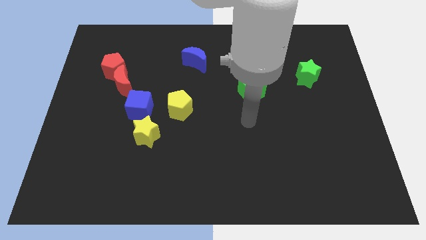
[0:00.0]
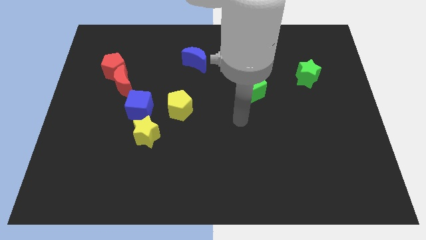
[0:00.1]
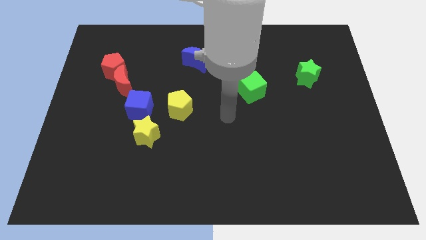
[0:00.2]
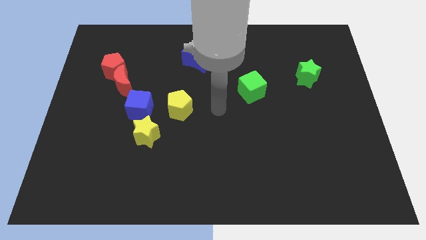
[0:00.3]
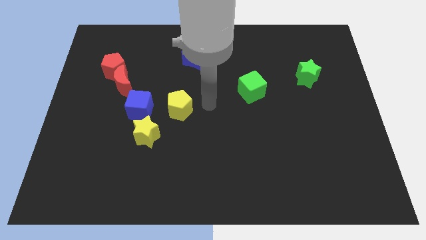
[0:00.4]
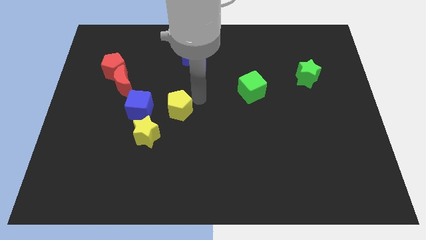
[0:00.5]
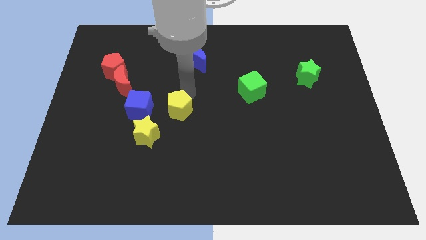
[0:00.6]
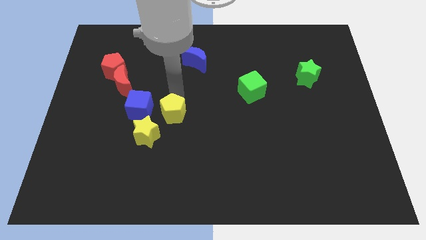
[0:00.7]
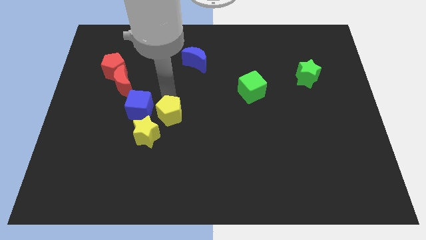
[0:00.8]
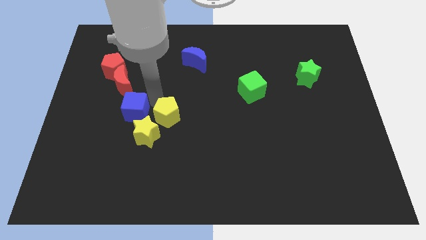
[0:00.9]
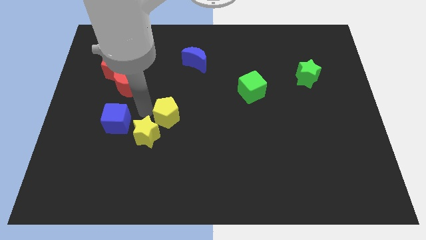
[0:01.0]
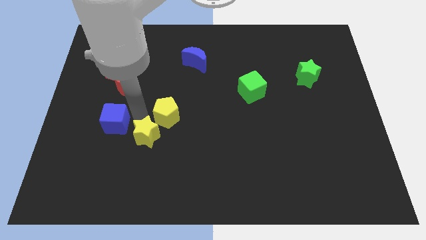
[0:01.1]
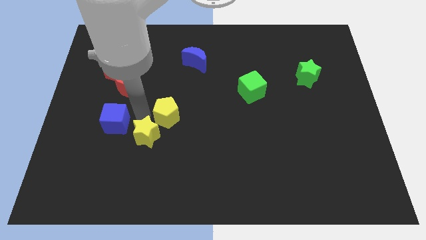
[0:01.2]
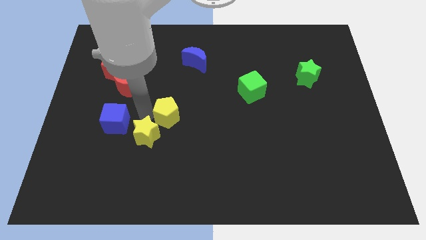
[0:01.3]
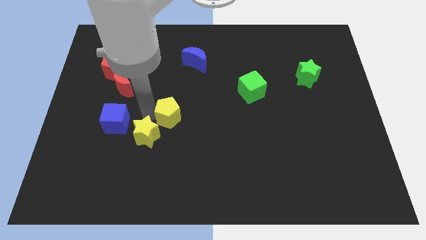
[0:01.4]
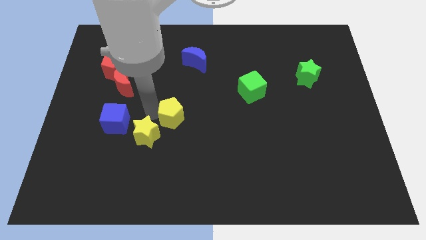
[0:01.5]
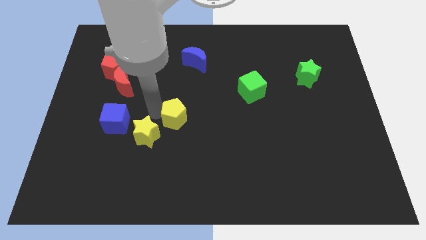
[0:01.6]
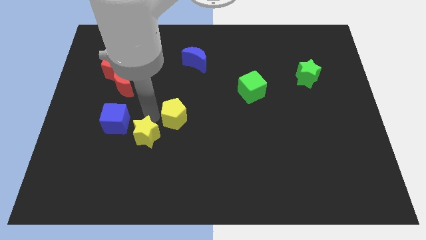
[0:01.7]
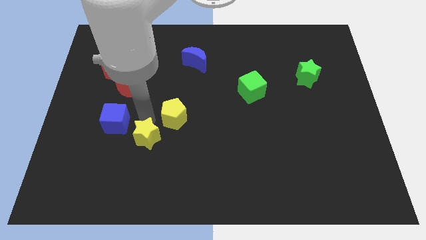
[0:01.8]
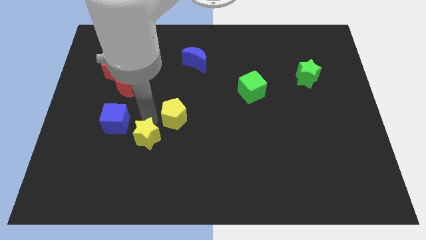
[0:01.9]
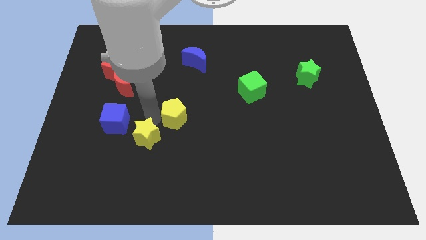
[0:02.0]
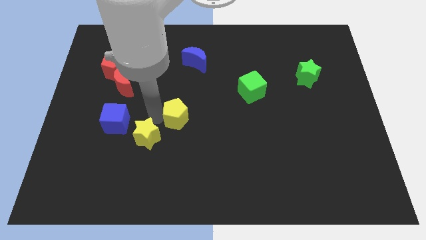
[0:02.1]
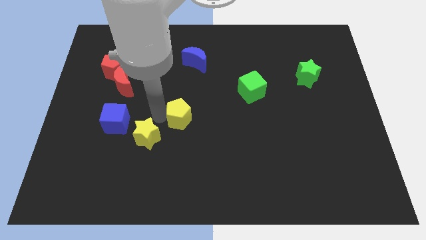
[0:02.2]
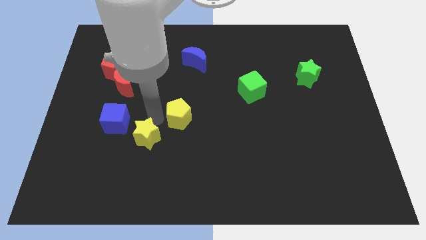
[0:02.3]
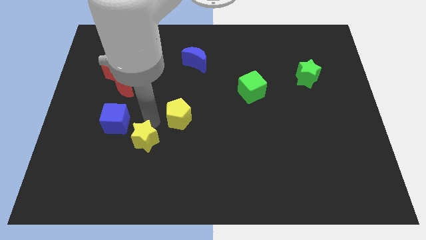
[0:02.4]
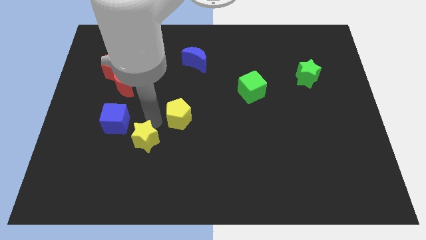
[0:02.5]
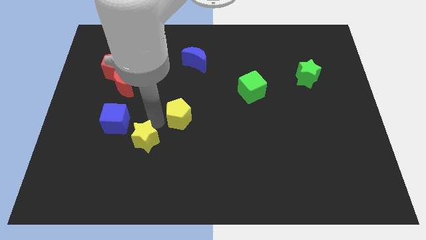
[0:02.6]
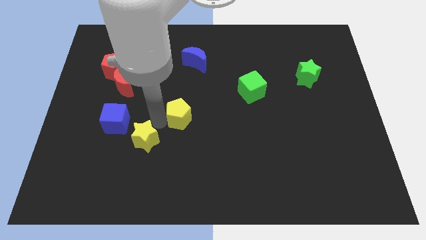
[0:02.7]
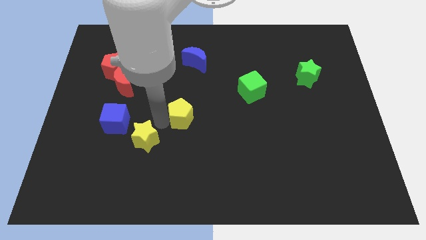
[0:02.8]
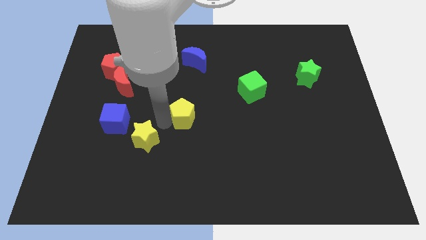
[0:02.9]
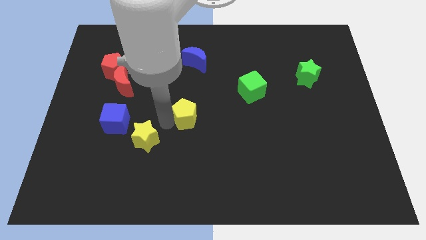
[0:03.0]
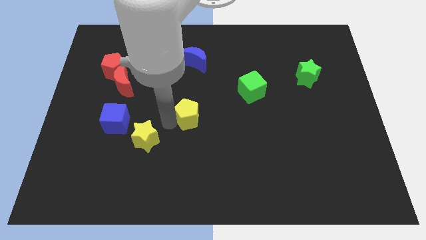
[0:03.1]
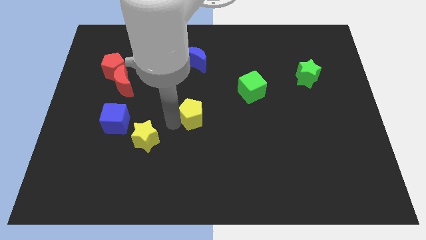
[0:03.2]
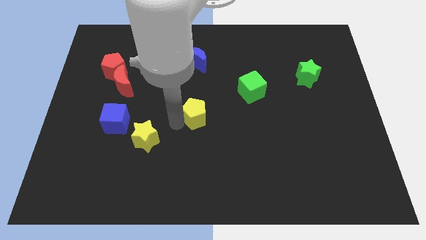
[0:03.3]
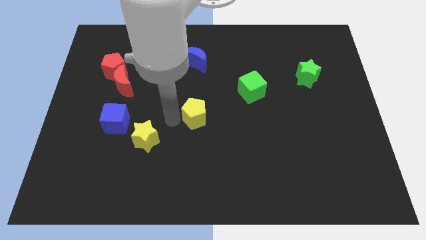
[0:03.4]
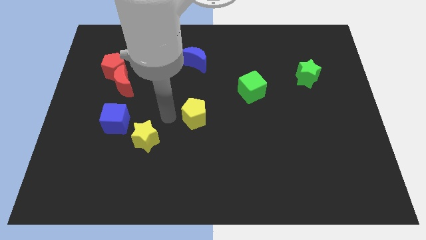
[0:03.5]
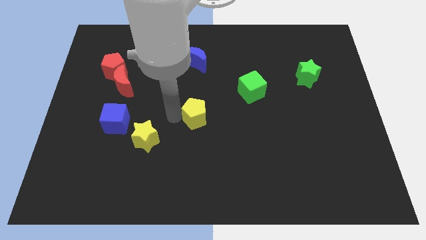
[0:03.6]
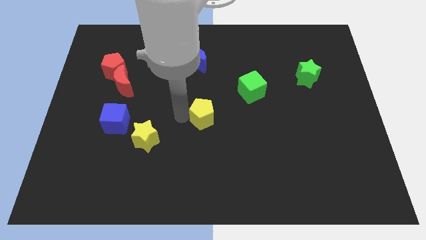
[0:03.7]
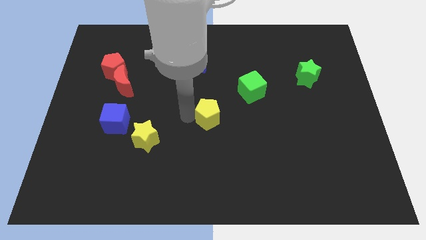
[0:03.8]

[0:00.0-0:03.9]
slightly push the yellow pentagon right

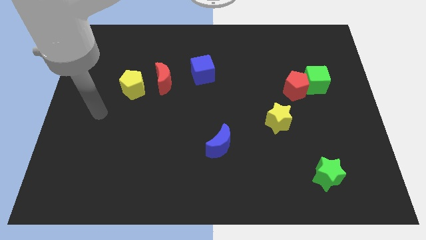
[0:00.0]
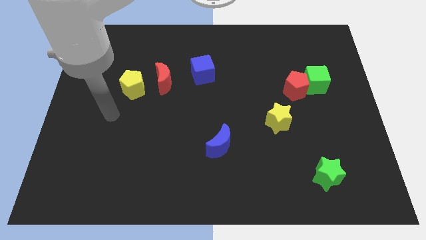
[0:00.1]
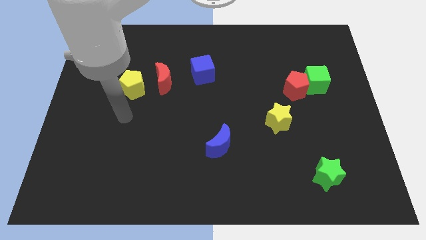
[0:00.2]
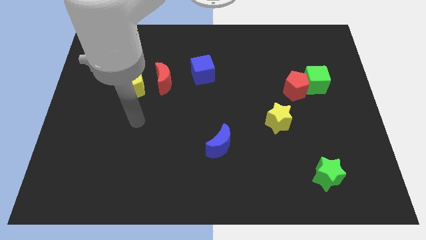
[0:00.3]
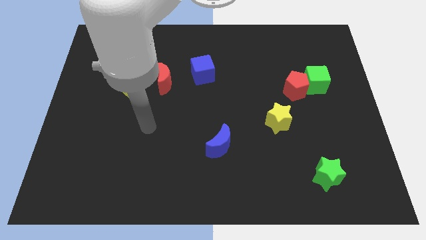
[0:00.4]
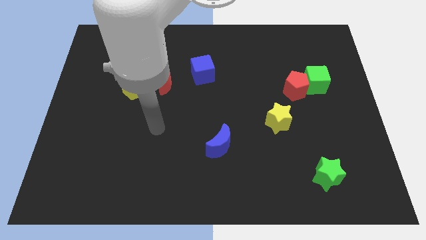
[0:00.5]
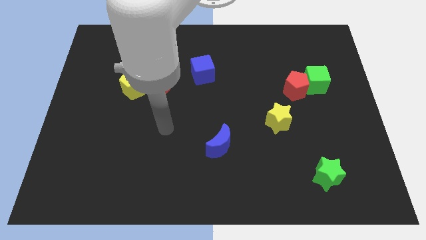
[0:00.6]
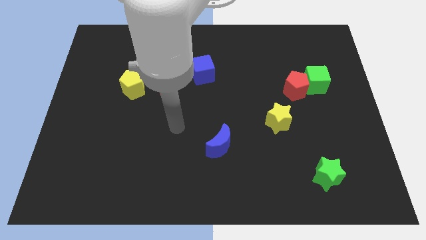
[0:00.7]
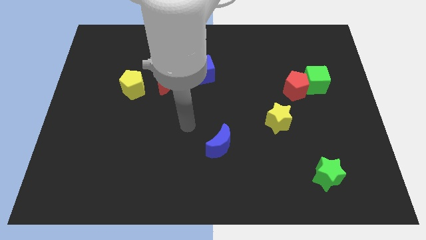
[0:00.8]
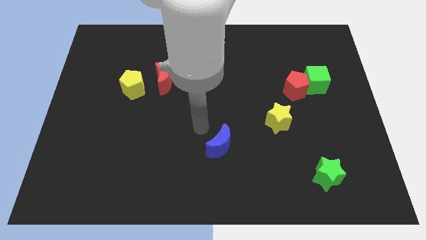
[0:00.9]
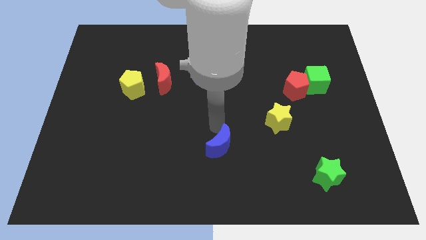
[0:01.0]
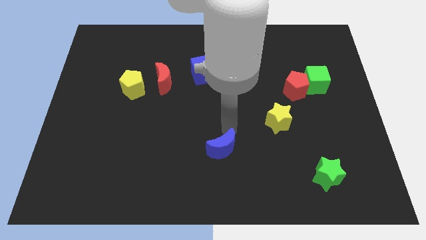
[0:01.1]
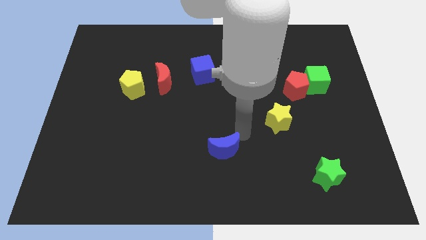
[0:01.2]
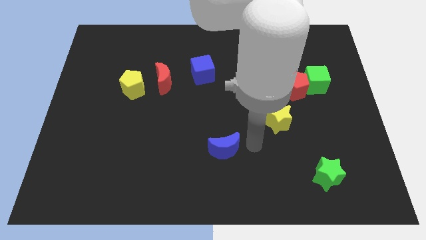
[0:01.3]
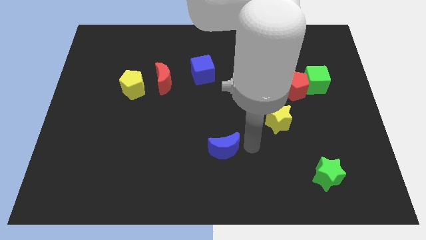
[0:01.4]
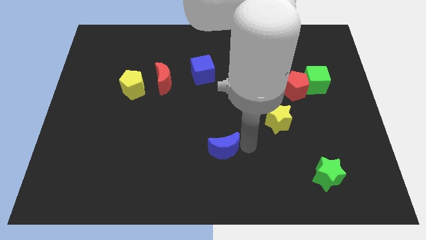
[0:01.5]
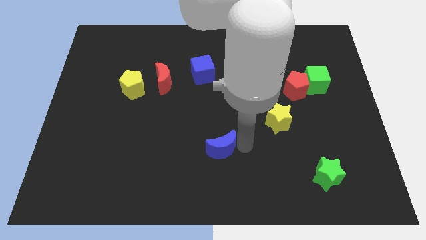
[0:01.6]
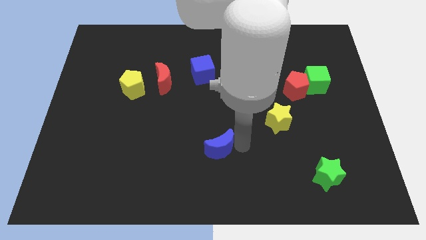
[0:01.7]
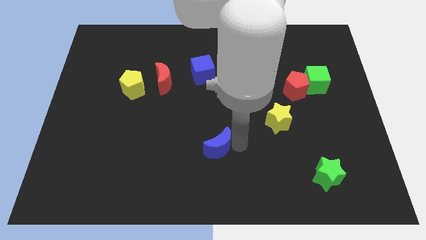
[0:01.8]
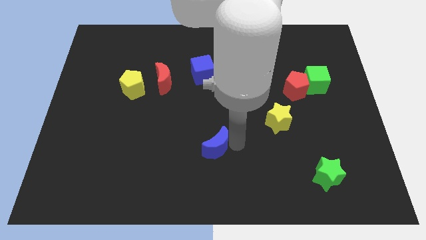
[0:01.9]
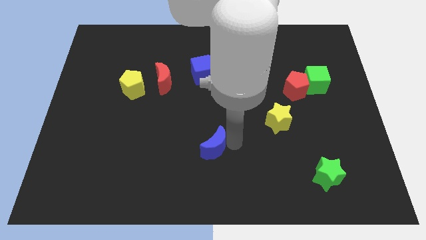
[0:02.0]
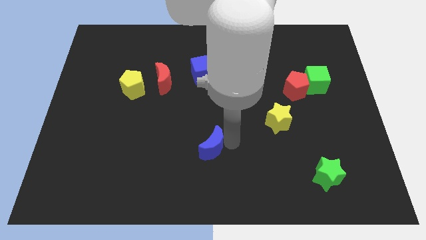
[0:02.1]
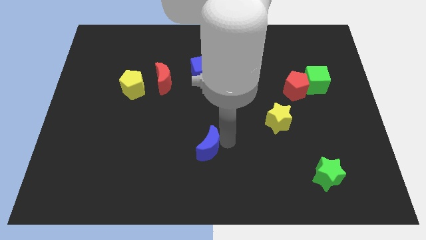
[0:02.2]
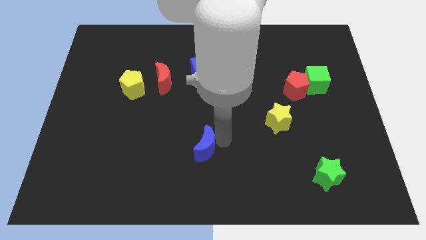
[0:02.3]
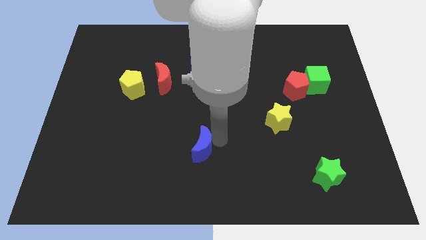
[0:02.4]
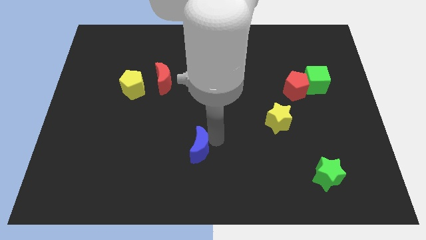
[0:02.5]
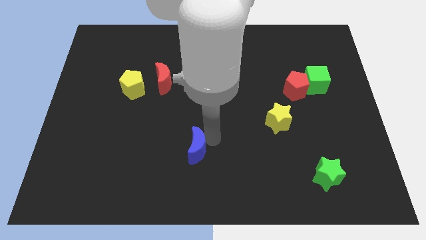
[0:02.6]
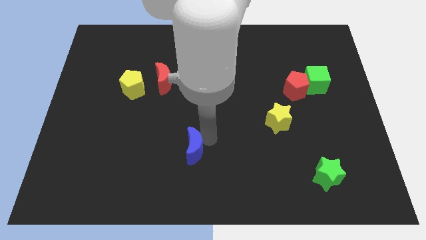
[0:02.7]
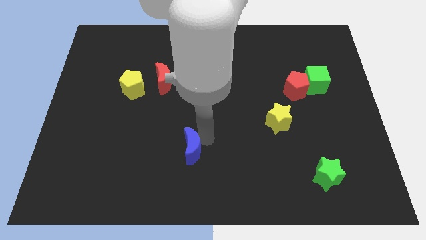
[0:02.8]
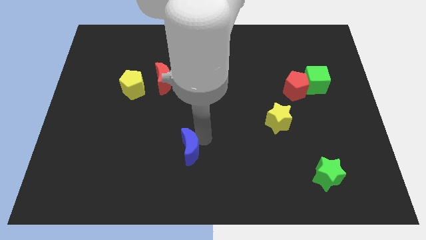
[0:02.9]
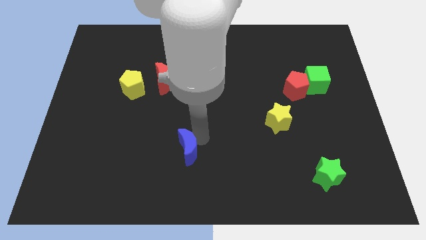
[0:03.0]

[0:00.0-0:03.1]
slightly move the blue moon left

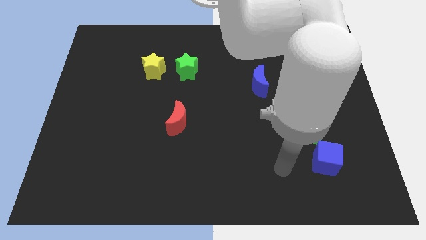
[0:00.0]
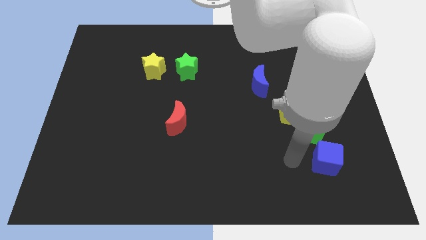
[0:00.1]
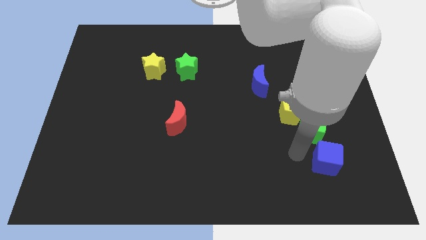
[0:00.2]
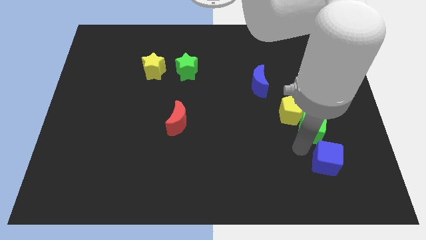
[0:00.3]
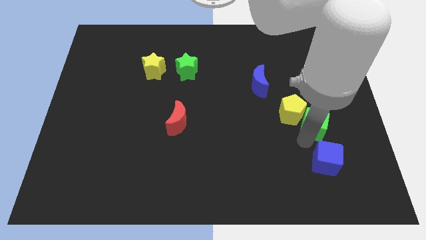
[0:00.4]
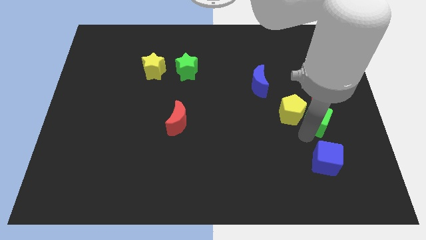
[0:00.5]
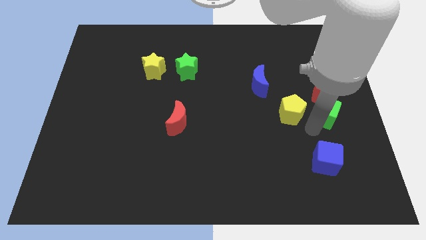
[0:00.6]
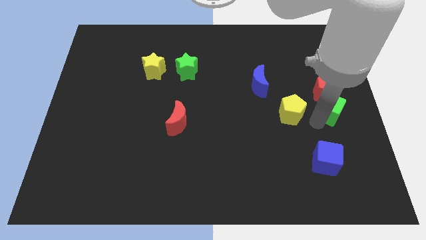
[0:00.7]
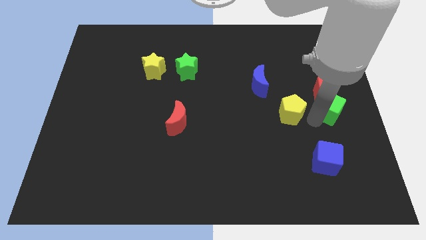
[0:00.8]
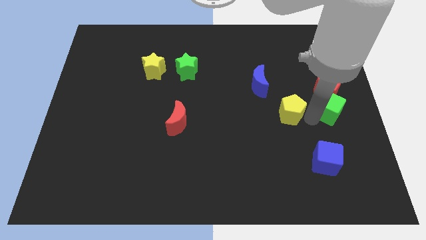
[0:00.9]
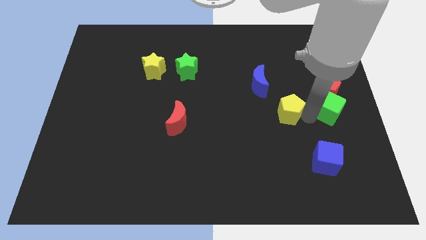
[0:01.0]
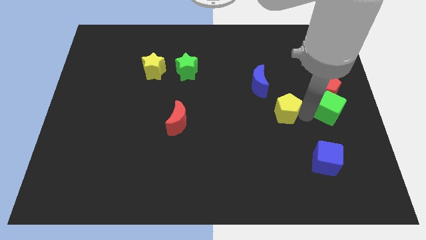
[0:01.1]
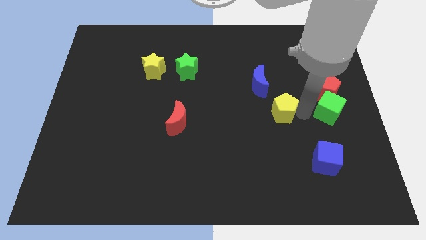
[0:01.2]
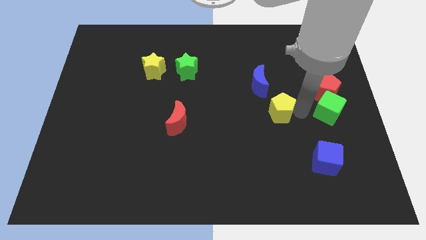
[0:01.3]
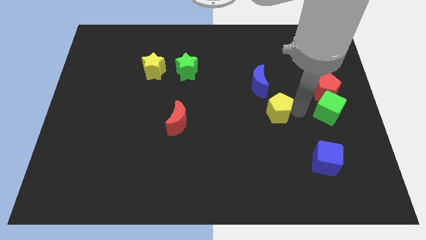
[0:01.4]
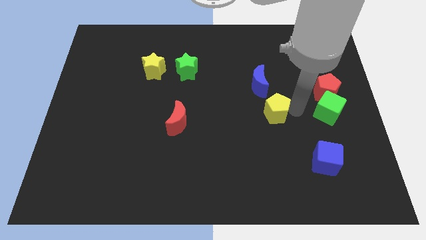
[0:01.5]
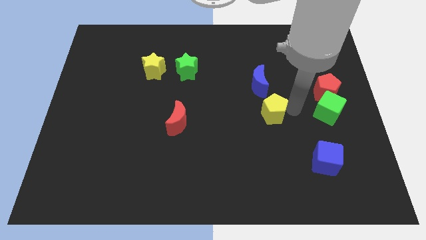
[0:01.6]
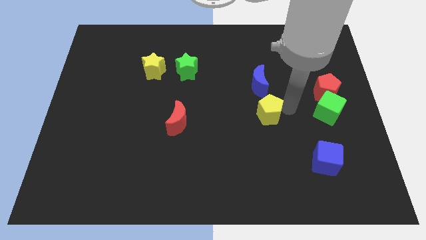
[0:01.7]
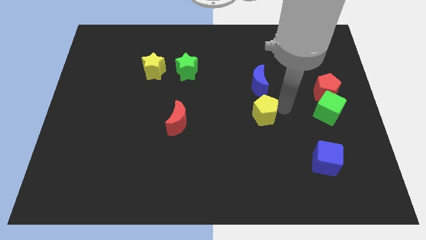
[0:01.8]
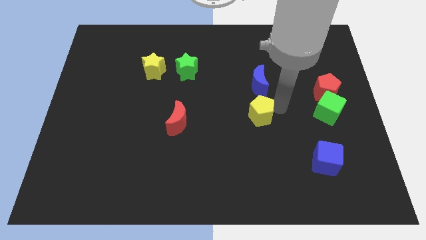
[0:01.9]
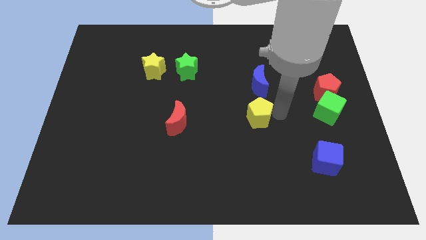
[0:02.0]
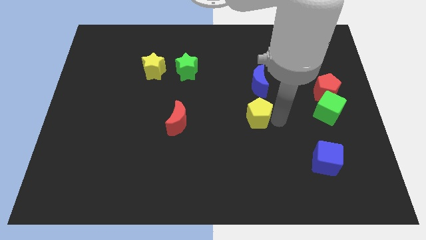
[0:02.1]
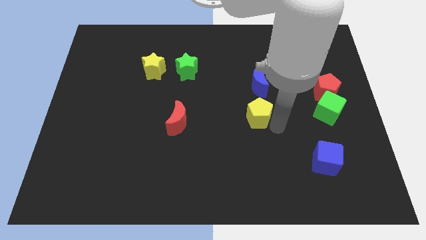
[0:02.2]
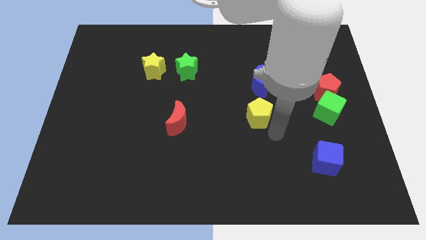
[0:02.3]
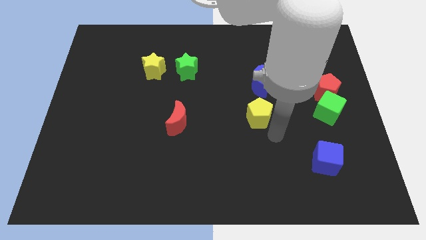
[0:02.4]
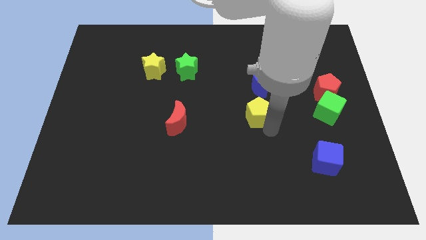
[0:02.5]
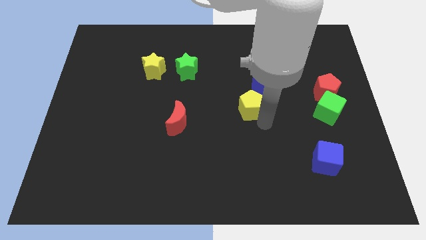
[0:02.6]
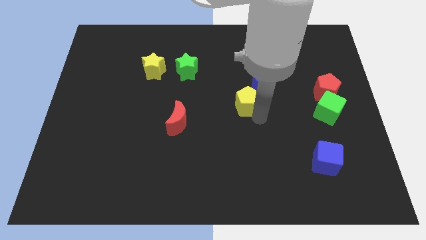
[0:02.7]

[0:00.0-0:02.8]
slightly push the yellow pentagon upwards and to the left diagonally
